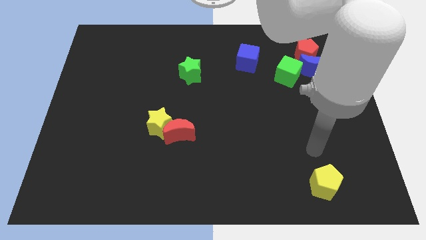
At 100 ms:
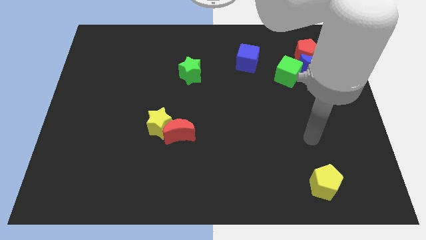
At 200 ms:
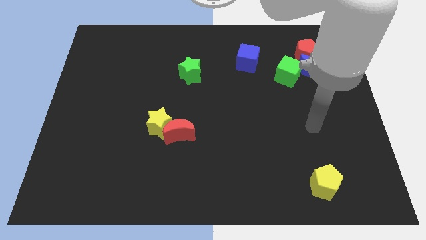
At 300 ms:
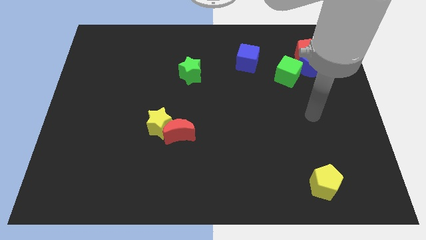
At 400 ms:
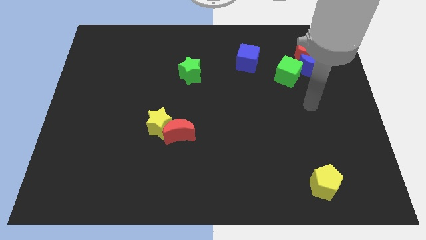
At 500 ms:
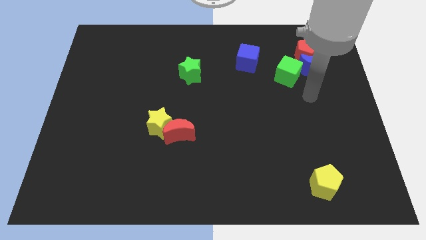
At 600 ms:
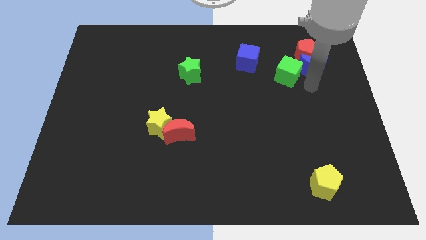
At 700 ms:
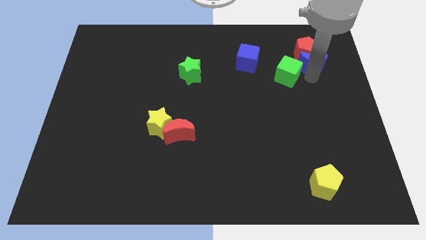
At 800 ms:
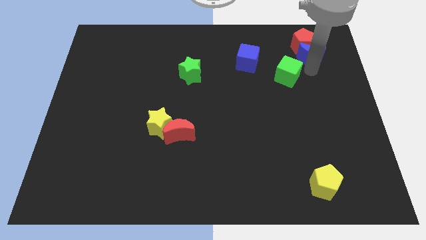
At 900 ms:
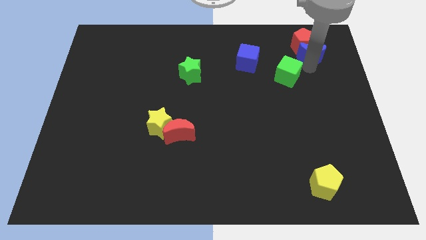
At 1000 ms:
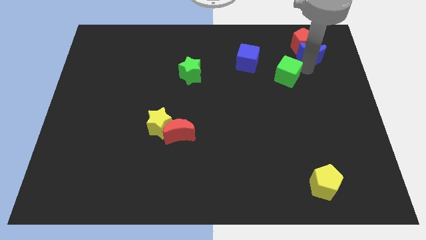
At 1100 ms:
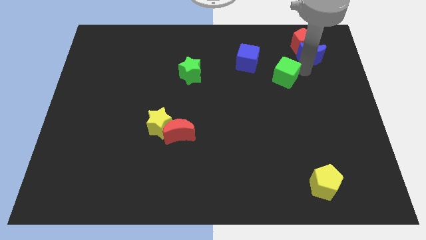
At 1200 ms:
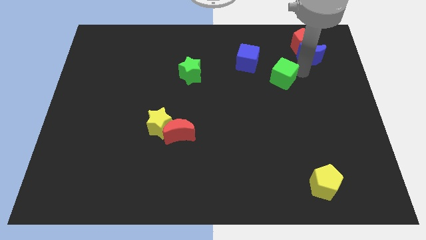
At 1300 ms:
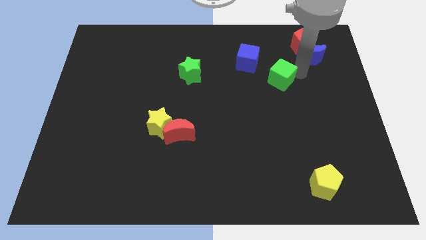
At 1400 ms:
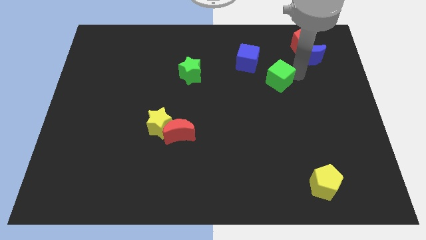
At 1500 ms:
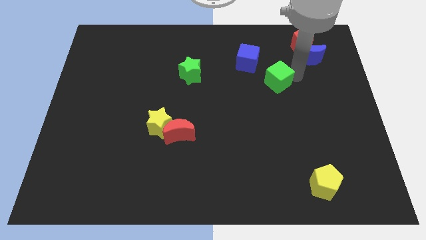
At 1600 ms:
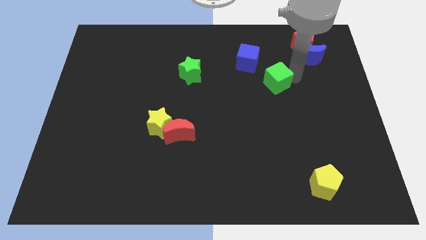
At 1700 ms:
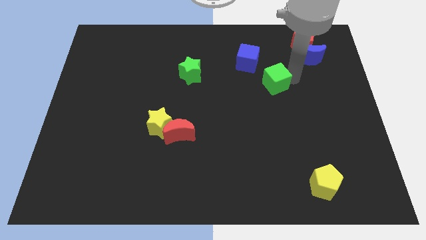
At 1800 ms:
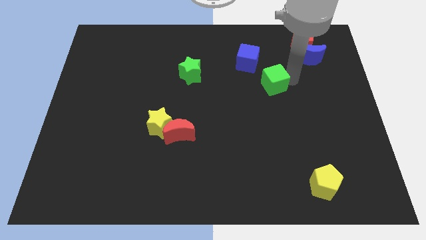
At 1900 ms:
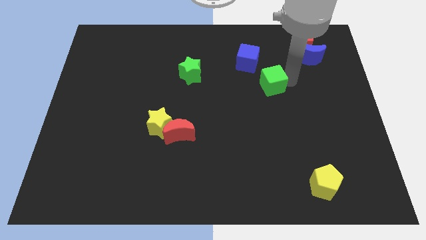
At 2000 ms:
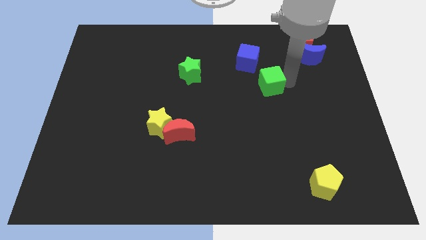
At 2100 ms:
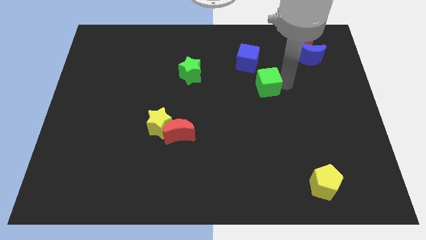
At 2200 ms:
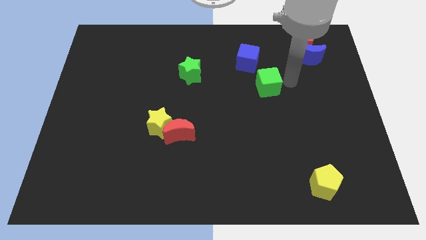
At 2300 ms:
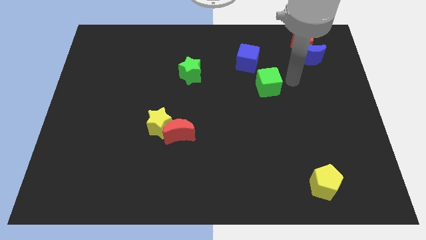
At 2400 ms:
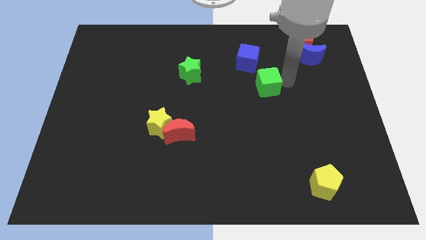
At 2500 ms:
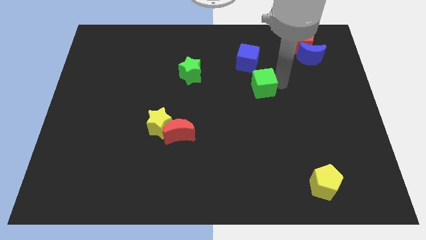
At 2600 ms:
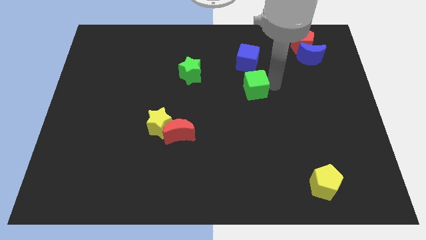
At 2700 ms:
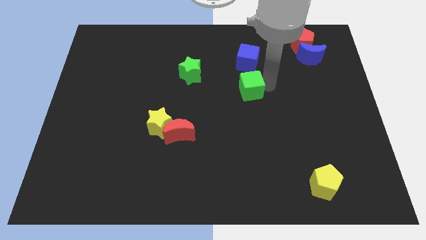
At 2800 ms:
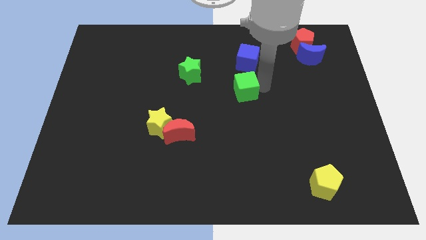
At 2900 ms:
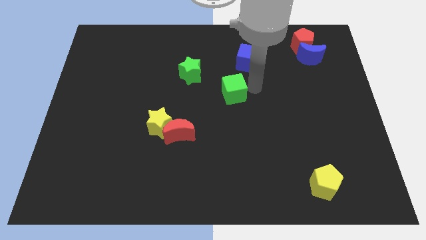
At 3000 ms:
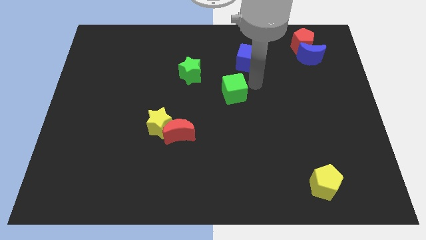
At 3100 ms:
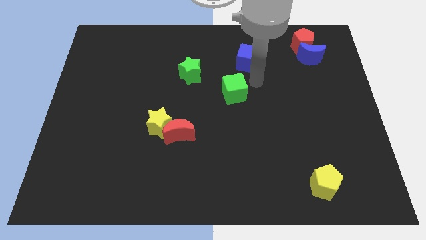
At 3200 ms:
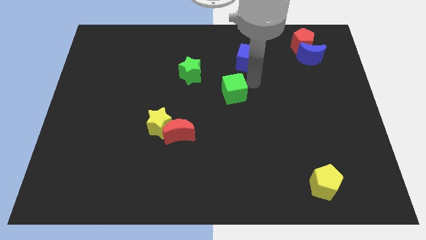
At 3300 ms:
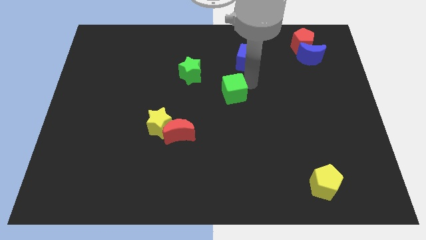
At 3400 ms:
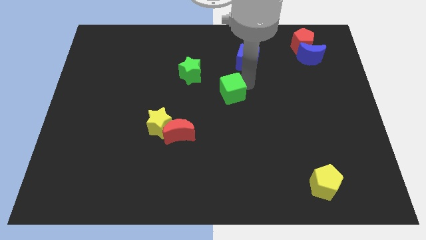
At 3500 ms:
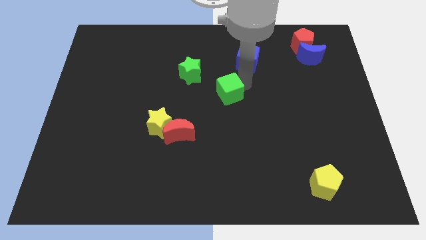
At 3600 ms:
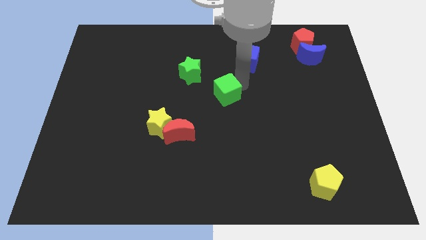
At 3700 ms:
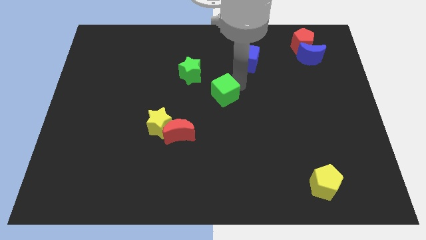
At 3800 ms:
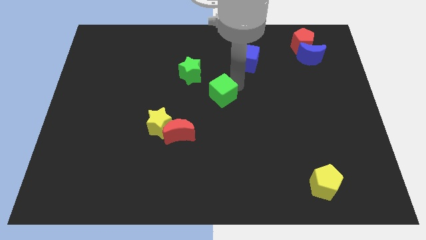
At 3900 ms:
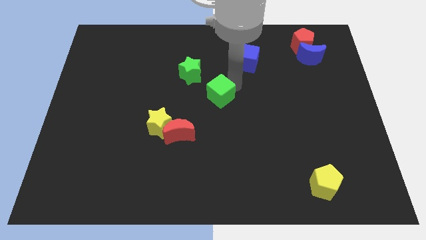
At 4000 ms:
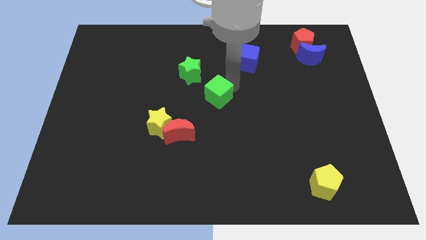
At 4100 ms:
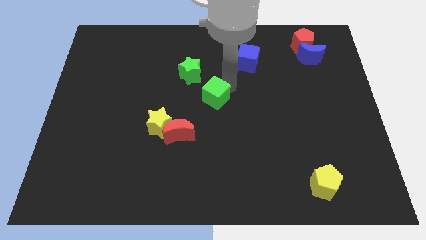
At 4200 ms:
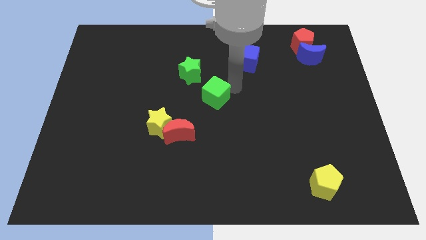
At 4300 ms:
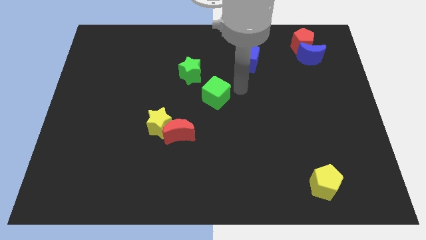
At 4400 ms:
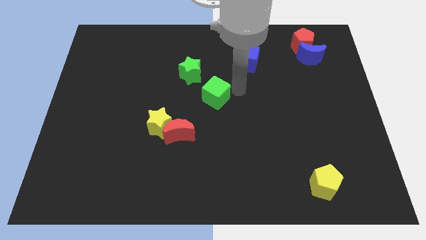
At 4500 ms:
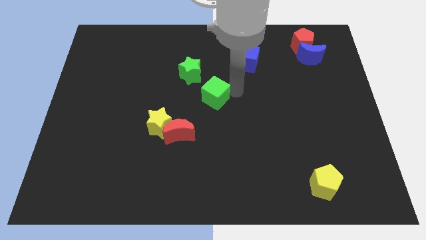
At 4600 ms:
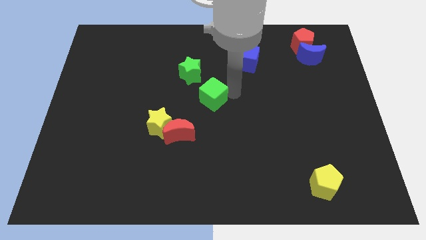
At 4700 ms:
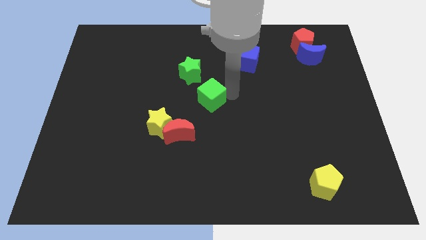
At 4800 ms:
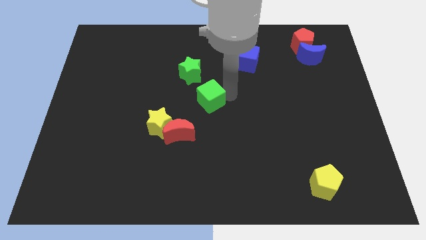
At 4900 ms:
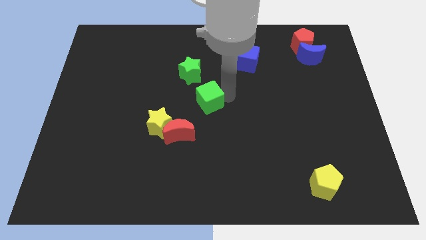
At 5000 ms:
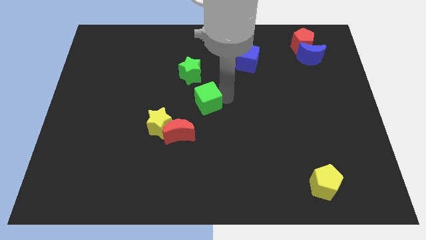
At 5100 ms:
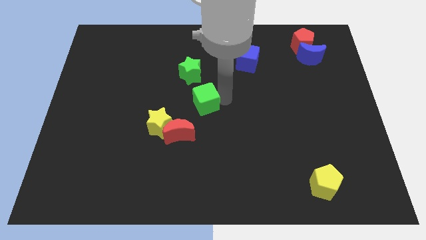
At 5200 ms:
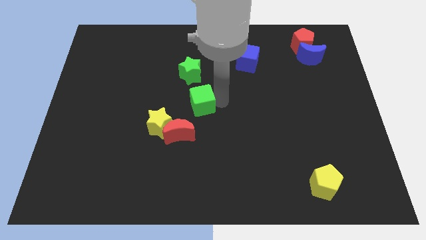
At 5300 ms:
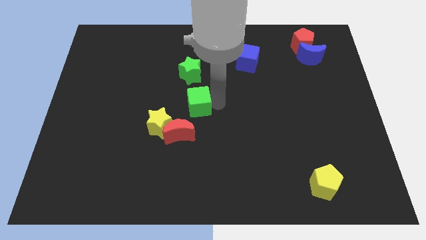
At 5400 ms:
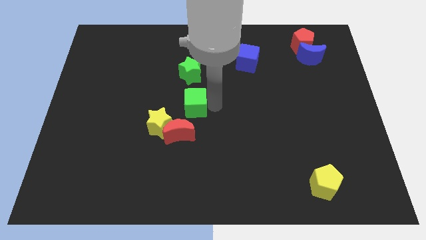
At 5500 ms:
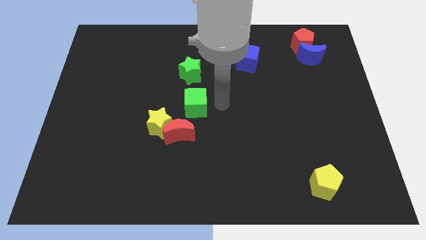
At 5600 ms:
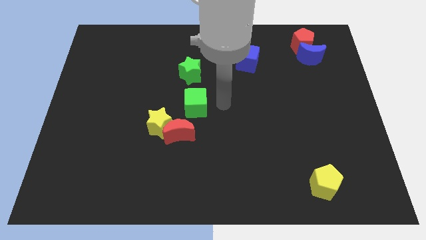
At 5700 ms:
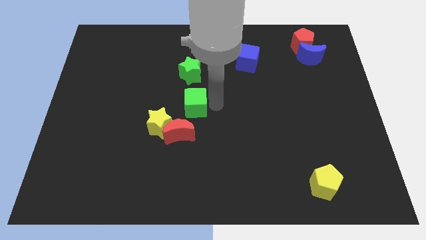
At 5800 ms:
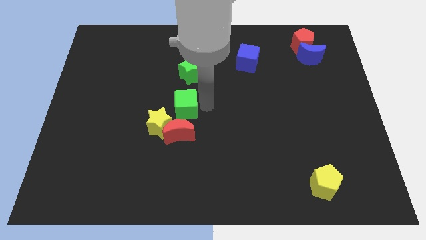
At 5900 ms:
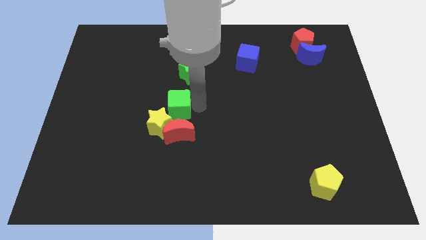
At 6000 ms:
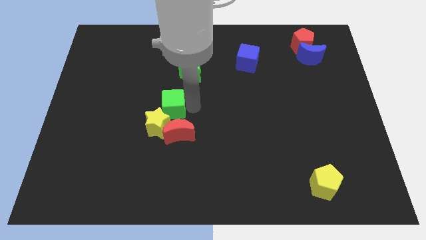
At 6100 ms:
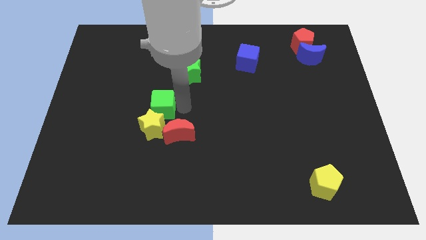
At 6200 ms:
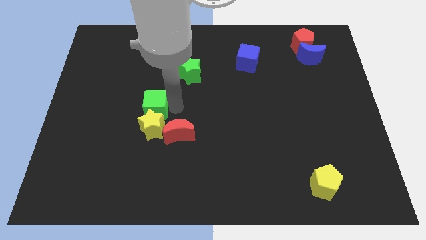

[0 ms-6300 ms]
put the green cube to the top left of the yellow star

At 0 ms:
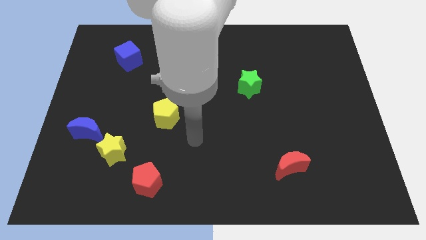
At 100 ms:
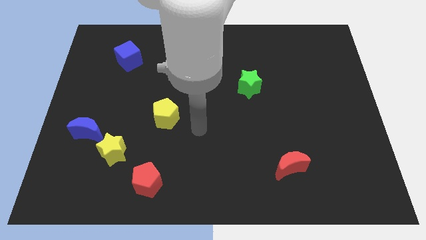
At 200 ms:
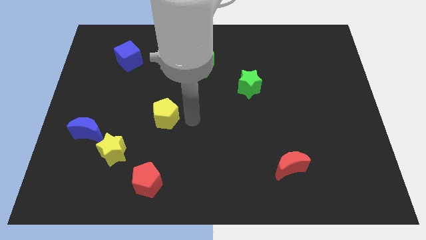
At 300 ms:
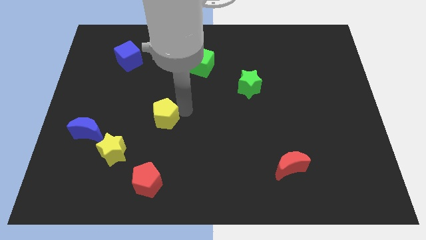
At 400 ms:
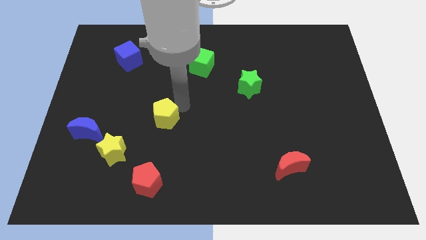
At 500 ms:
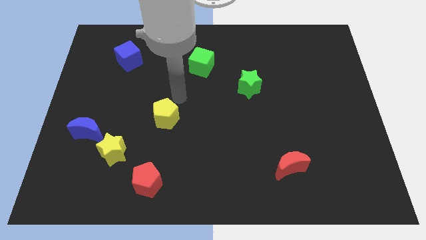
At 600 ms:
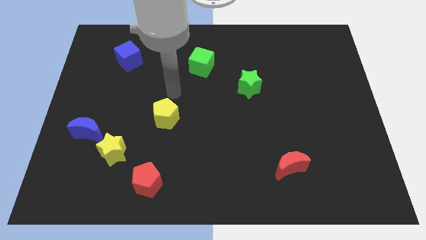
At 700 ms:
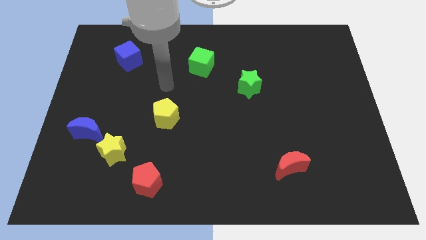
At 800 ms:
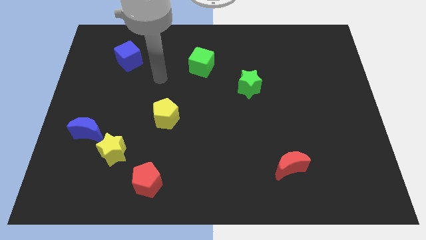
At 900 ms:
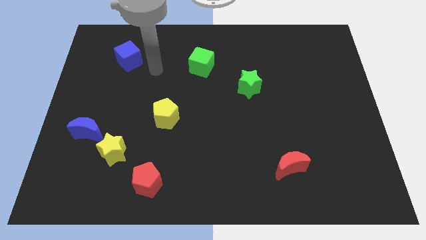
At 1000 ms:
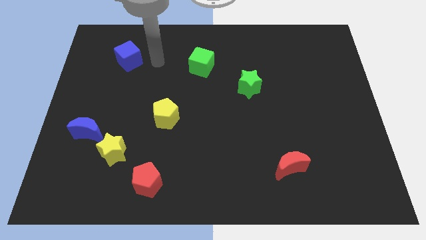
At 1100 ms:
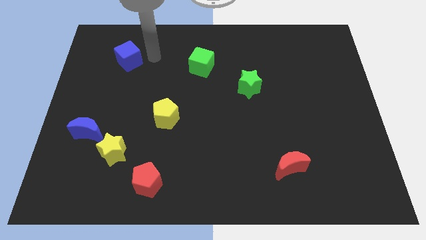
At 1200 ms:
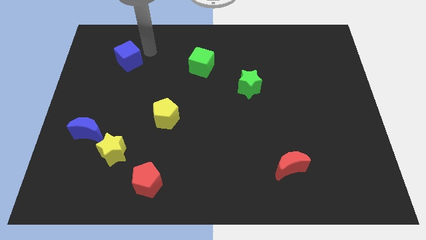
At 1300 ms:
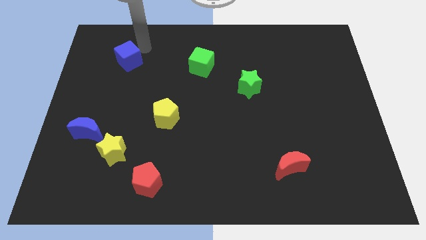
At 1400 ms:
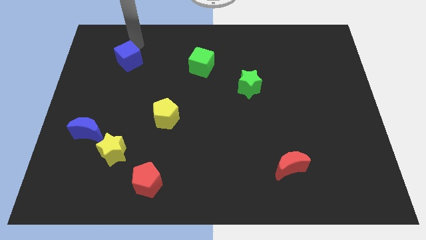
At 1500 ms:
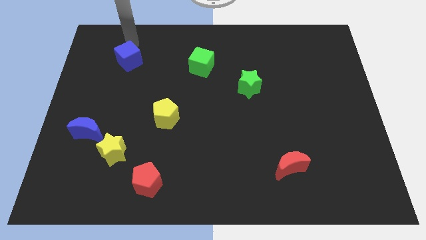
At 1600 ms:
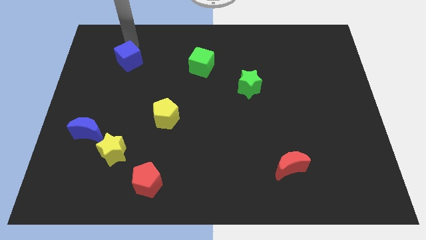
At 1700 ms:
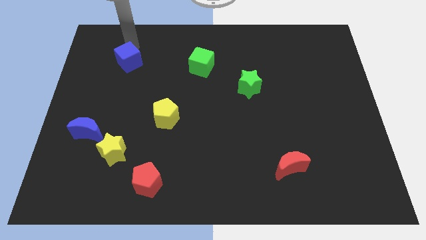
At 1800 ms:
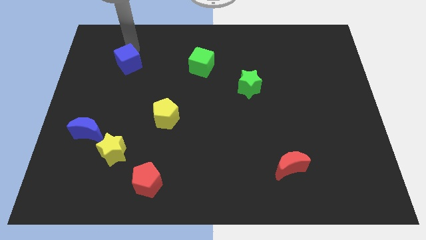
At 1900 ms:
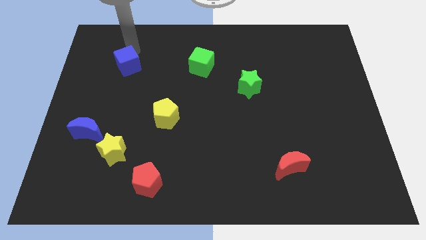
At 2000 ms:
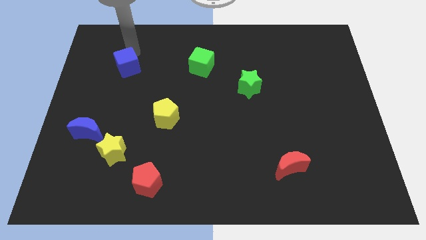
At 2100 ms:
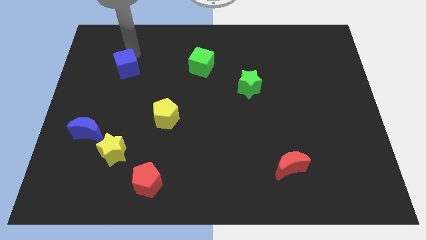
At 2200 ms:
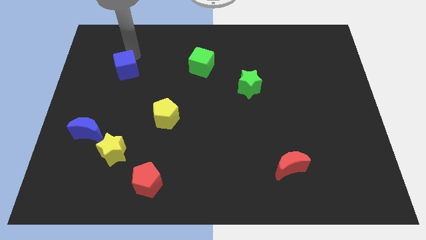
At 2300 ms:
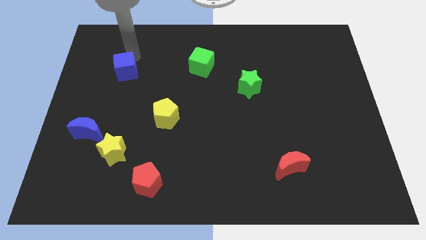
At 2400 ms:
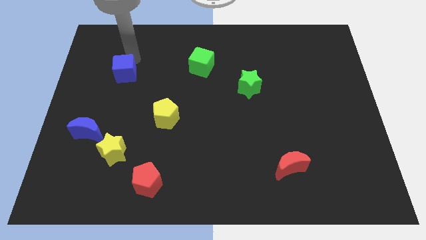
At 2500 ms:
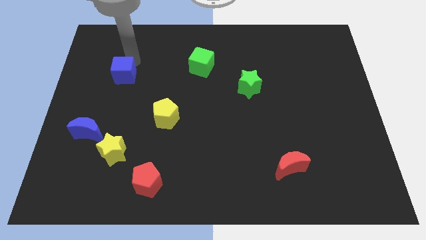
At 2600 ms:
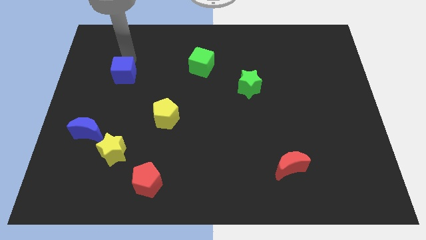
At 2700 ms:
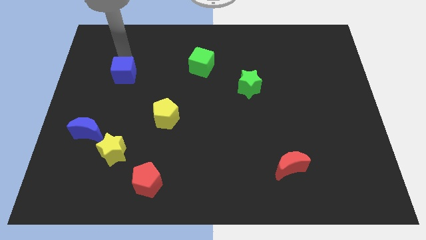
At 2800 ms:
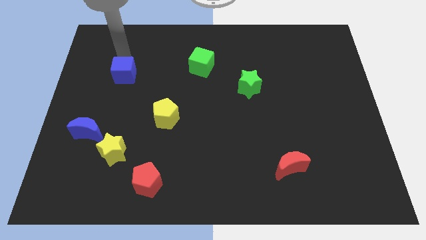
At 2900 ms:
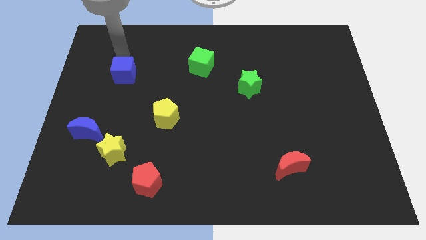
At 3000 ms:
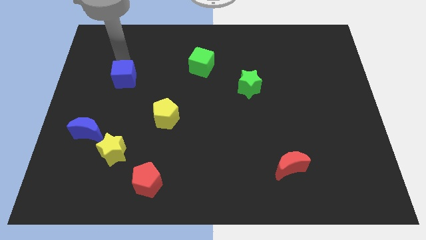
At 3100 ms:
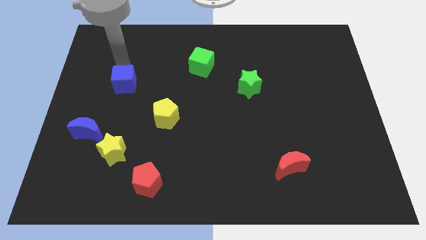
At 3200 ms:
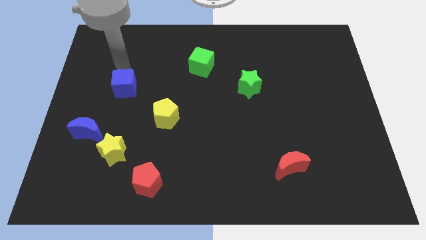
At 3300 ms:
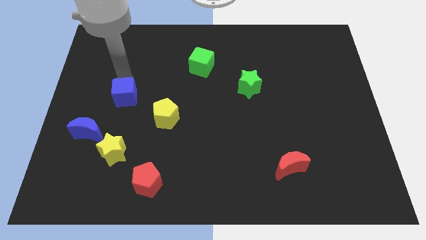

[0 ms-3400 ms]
move the blue cube to the top of the yellow star
